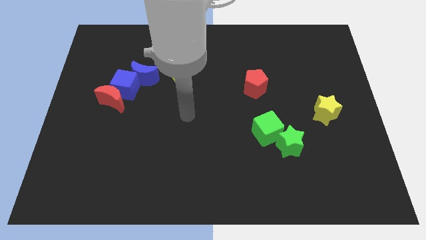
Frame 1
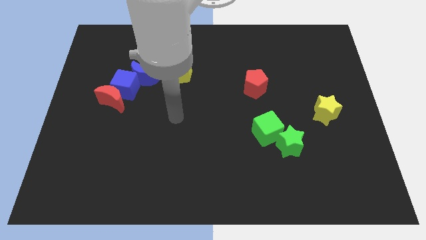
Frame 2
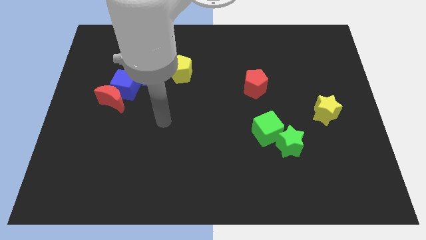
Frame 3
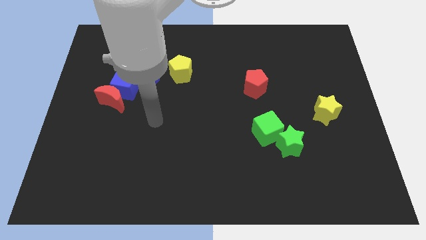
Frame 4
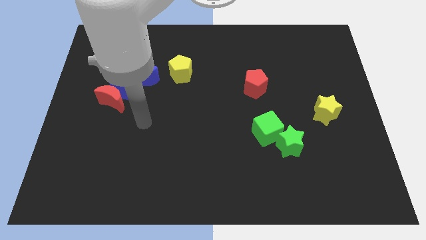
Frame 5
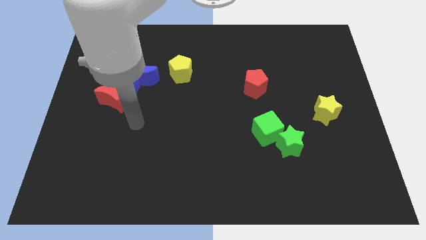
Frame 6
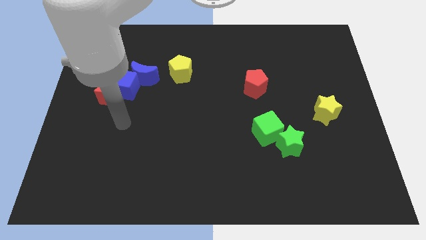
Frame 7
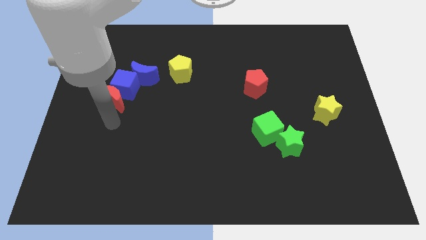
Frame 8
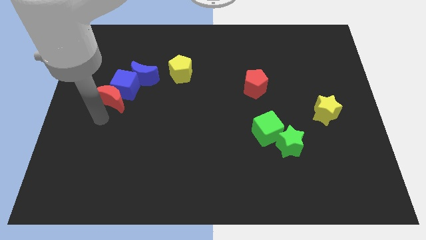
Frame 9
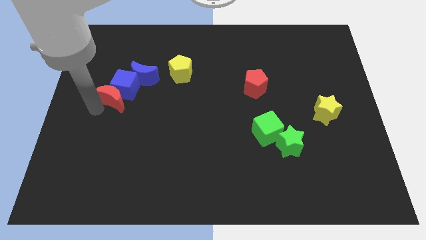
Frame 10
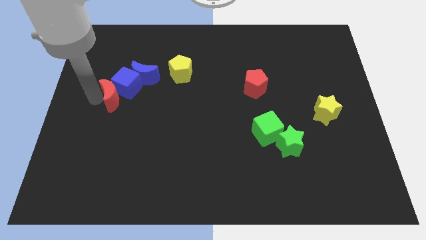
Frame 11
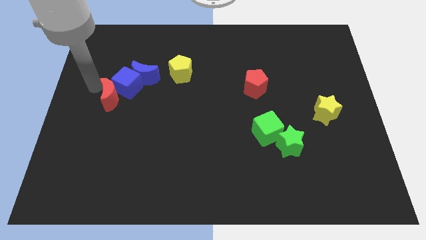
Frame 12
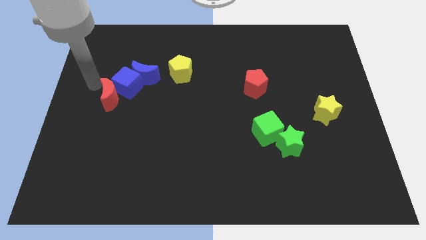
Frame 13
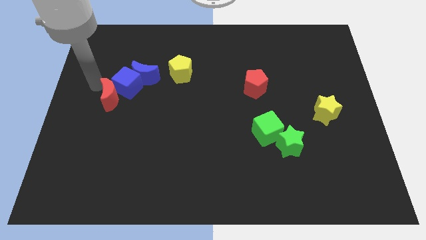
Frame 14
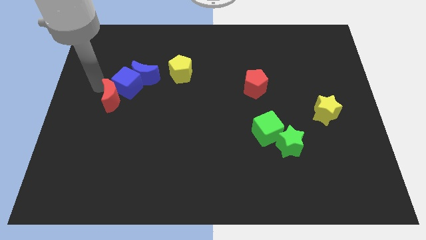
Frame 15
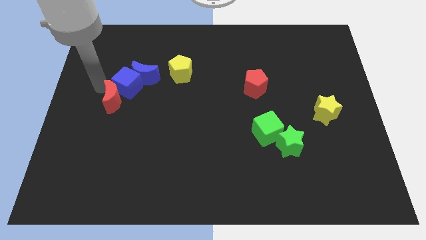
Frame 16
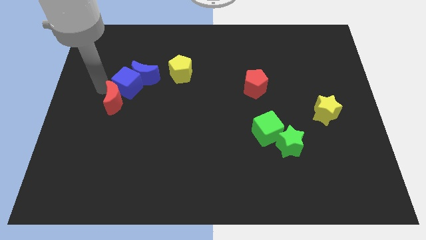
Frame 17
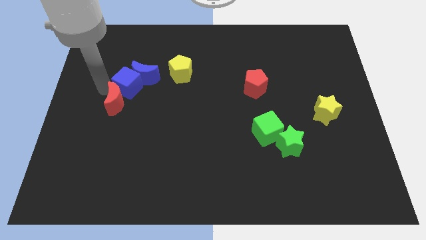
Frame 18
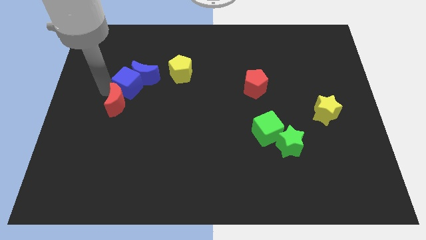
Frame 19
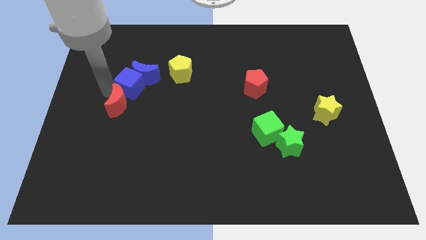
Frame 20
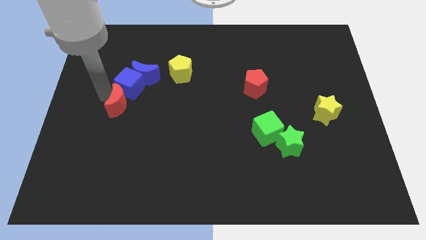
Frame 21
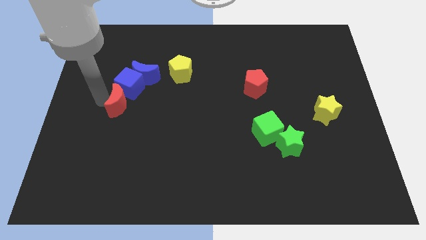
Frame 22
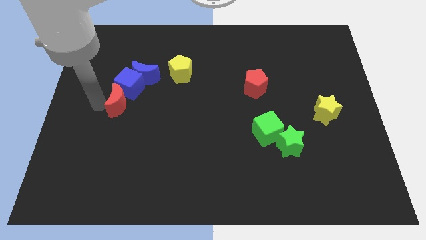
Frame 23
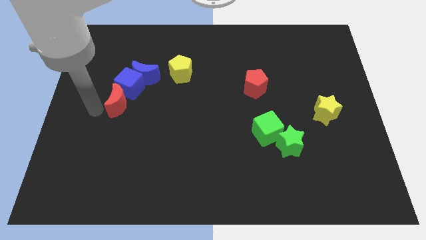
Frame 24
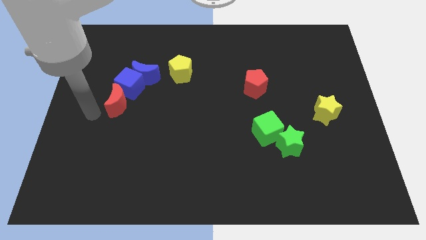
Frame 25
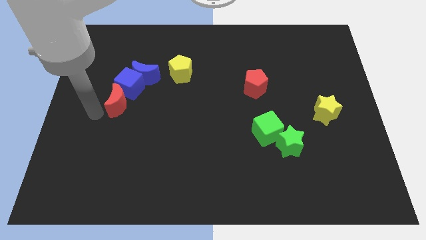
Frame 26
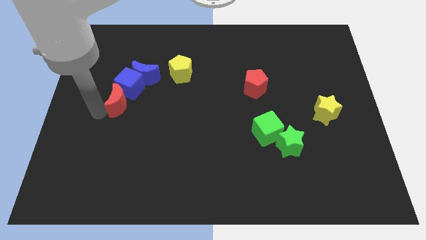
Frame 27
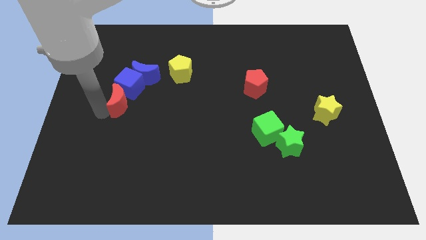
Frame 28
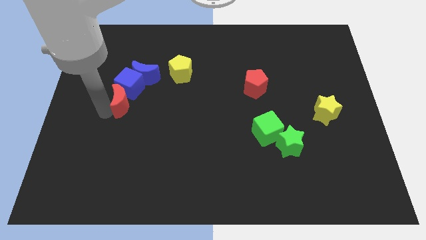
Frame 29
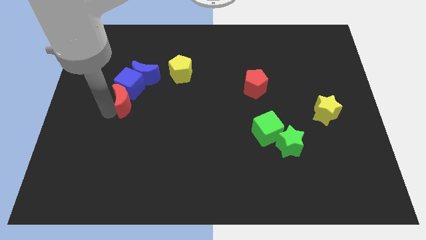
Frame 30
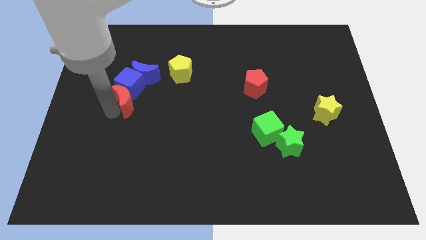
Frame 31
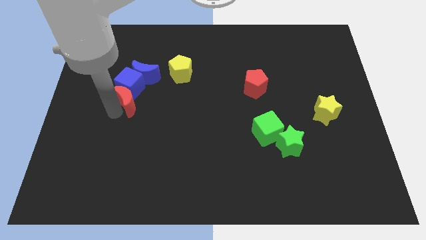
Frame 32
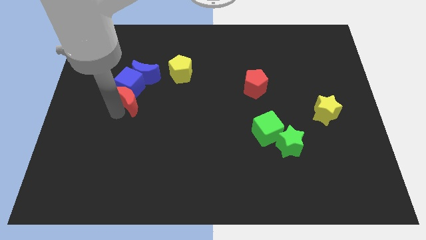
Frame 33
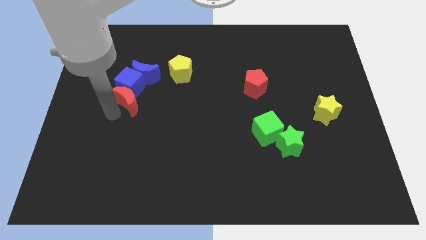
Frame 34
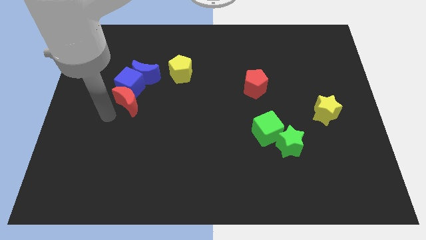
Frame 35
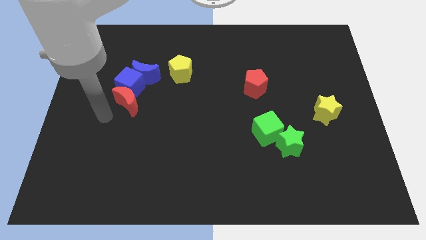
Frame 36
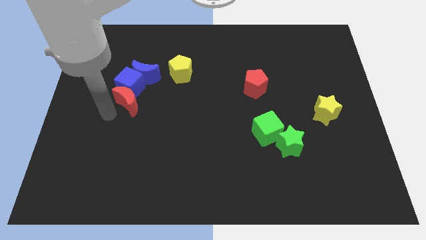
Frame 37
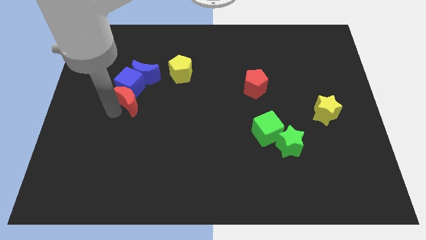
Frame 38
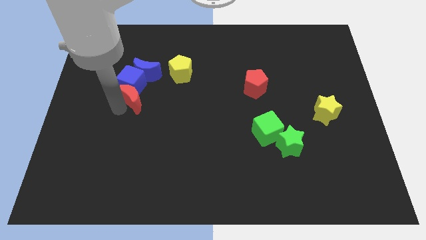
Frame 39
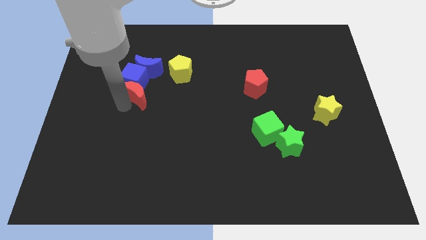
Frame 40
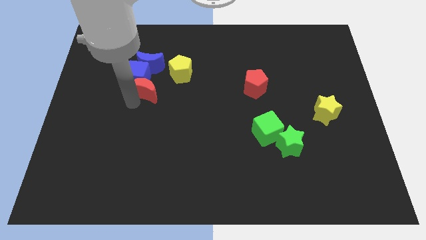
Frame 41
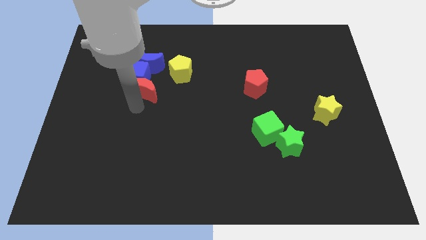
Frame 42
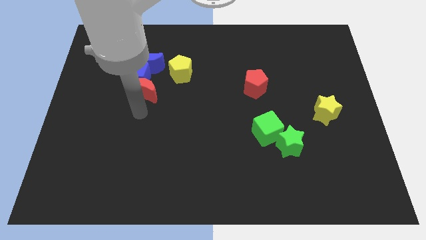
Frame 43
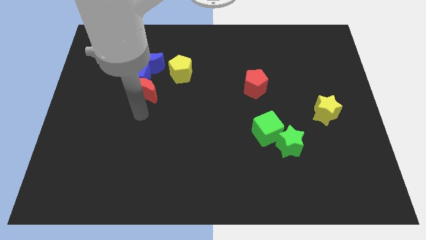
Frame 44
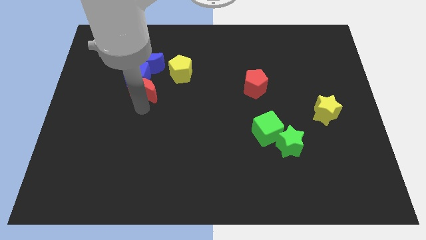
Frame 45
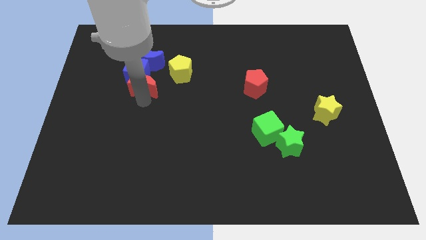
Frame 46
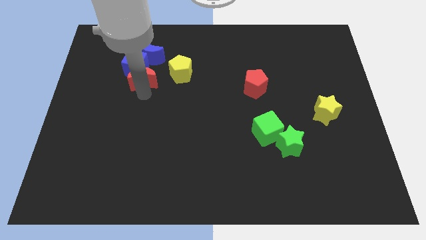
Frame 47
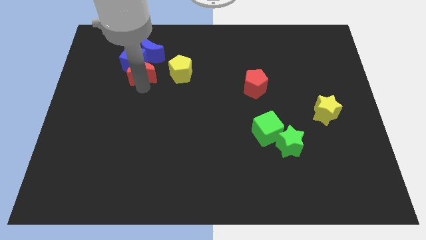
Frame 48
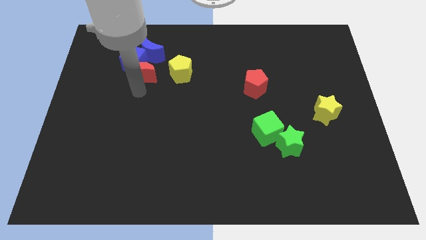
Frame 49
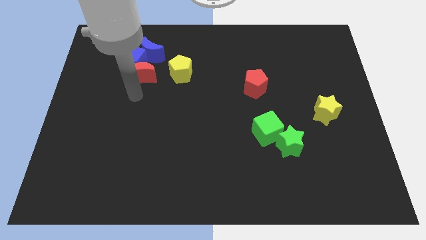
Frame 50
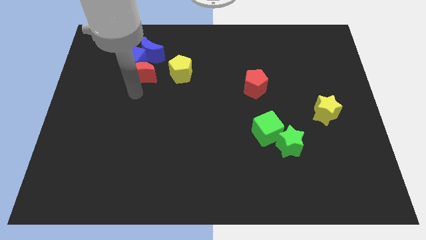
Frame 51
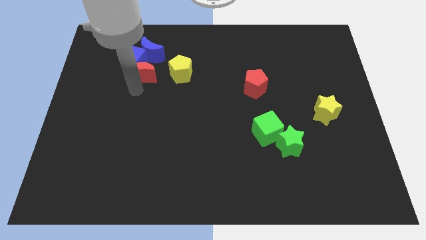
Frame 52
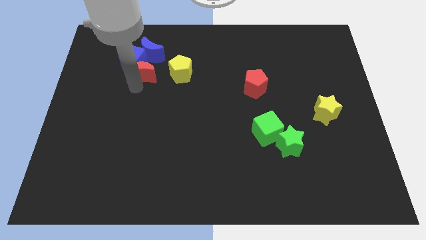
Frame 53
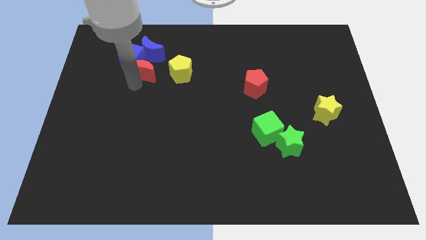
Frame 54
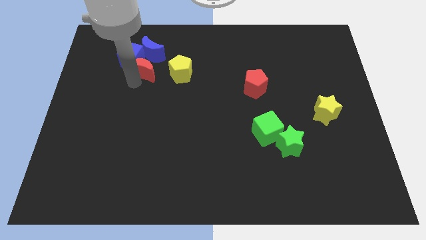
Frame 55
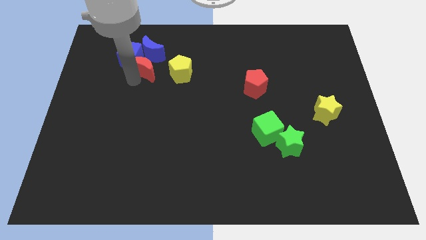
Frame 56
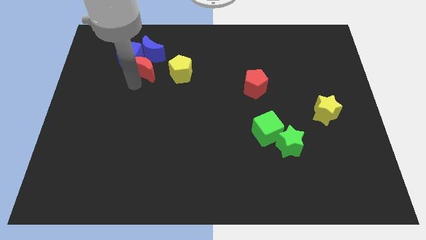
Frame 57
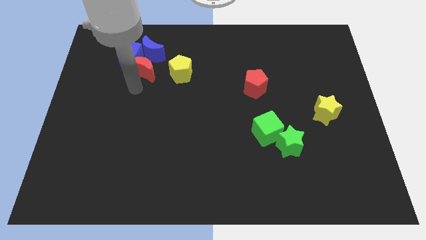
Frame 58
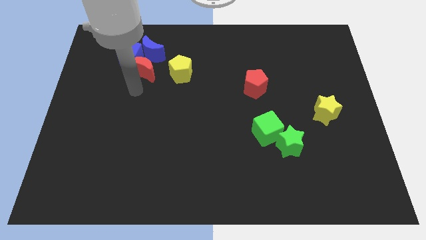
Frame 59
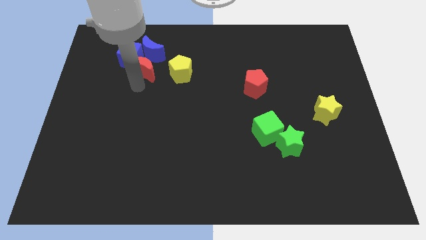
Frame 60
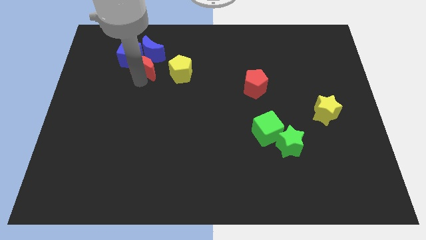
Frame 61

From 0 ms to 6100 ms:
put the red moon next to the blue moon

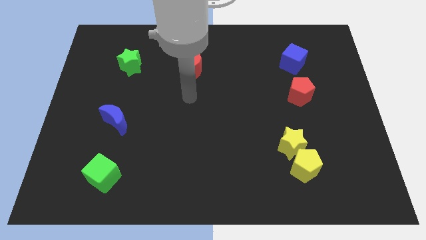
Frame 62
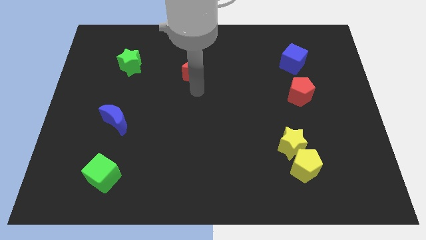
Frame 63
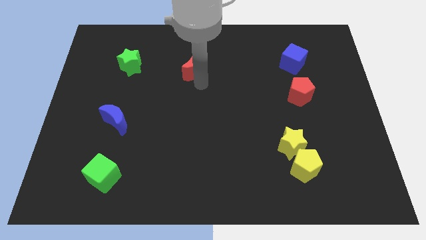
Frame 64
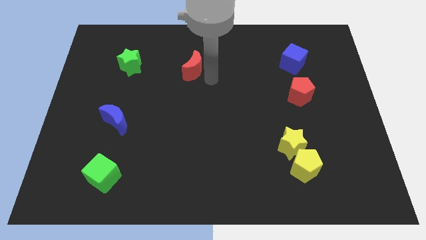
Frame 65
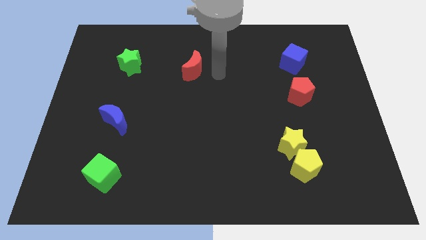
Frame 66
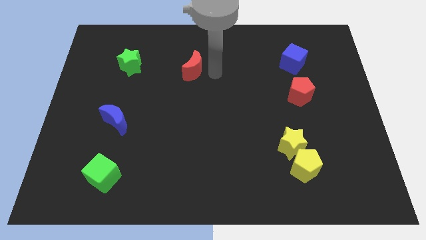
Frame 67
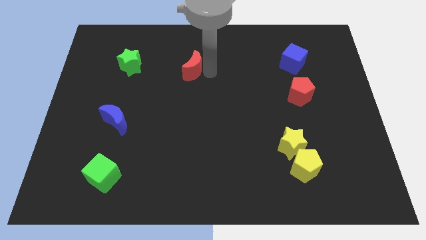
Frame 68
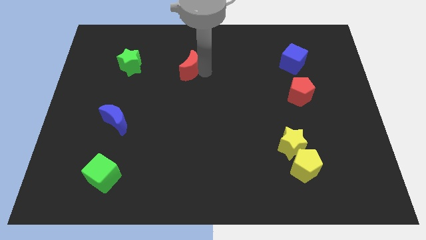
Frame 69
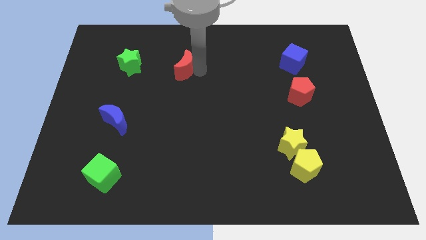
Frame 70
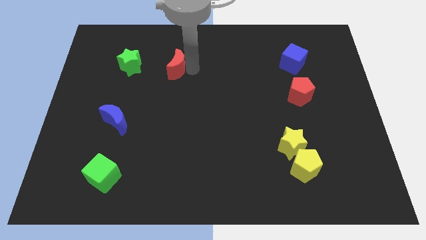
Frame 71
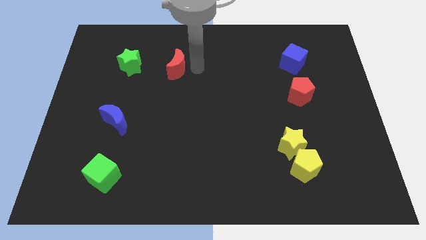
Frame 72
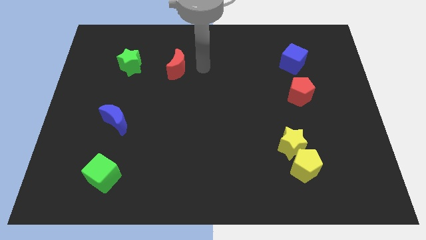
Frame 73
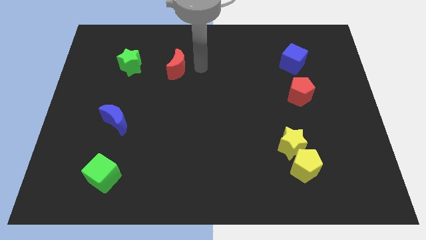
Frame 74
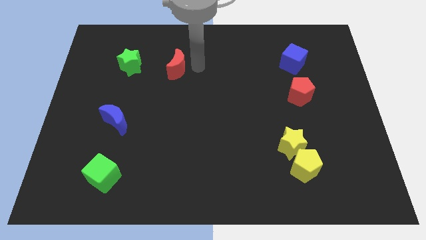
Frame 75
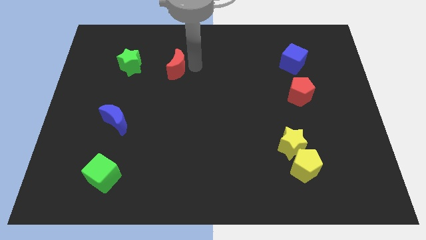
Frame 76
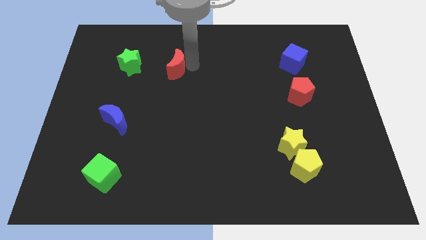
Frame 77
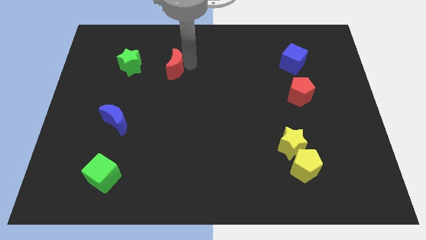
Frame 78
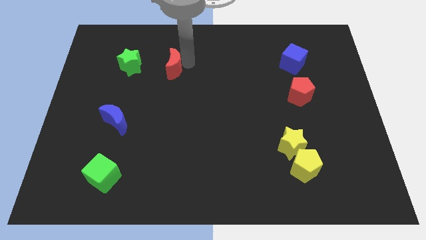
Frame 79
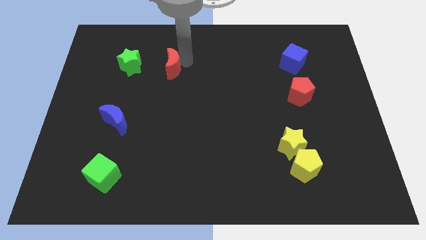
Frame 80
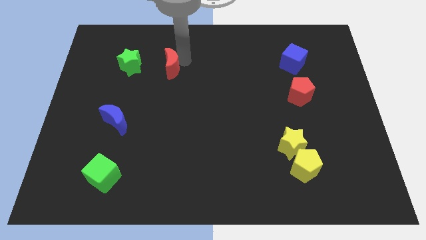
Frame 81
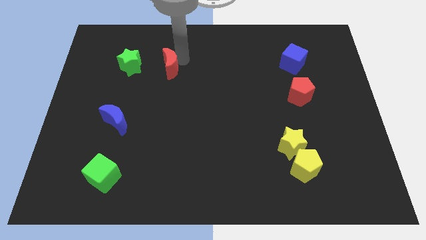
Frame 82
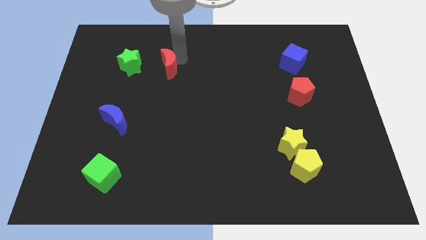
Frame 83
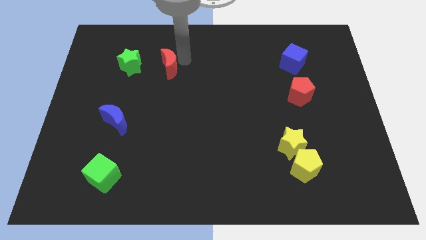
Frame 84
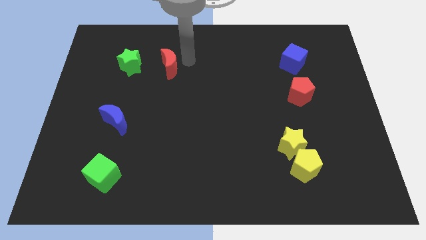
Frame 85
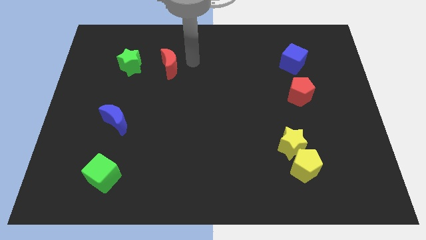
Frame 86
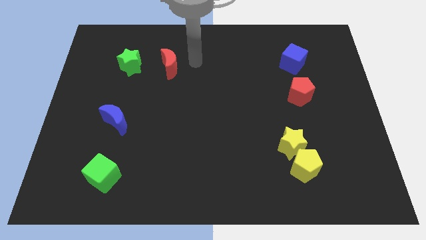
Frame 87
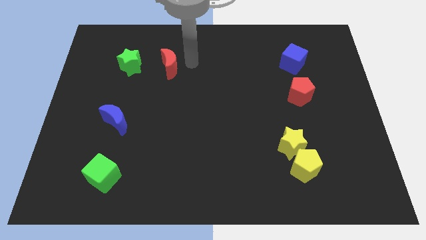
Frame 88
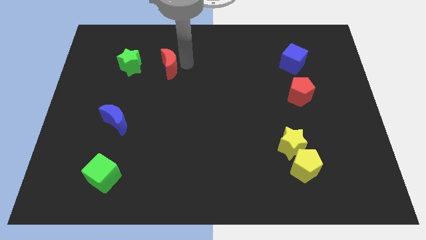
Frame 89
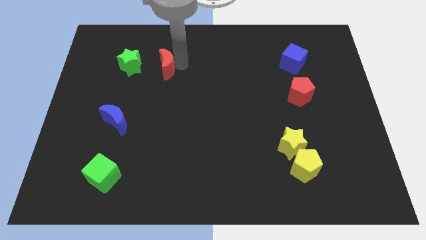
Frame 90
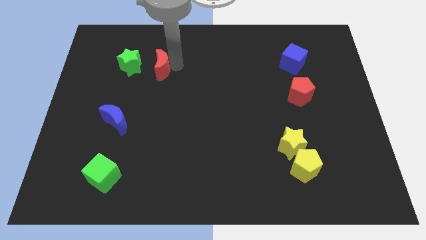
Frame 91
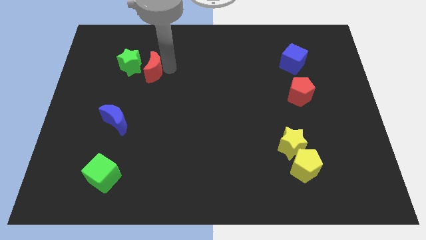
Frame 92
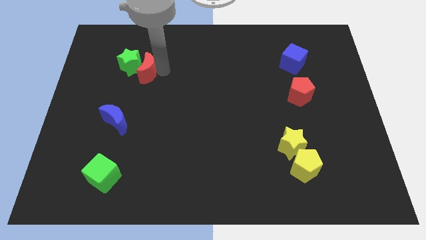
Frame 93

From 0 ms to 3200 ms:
push the red moon close to the green star
